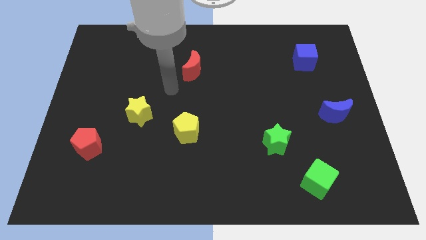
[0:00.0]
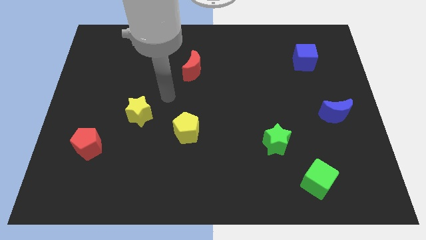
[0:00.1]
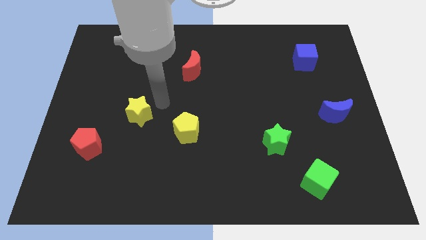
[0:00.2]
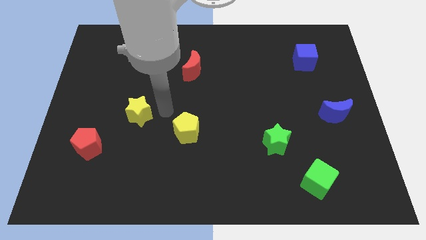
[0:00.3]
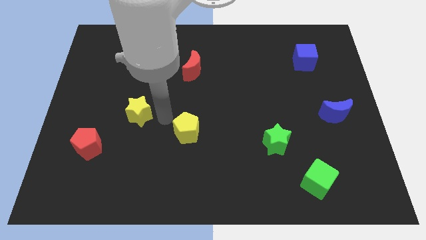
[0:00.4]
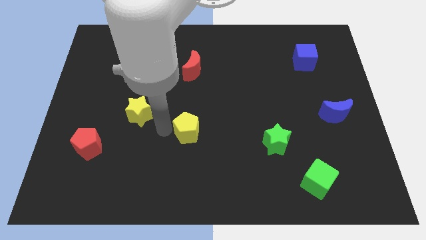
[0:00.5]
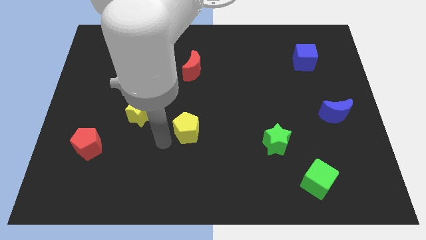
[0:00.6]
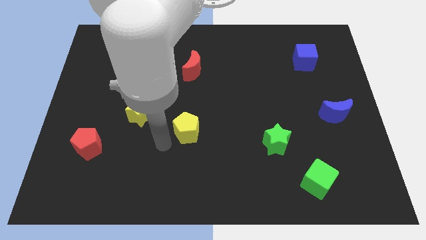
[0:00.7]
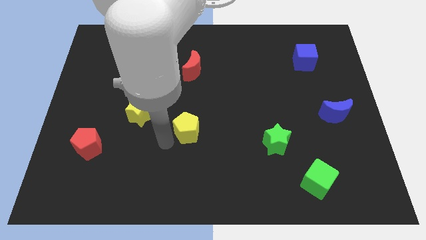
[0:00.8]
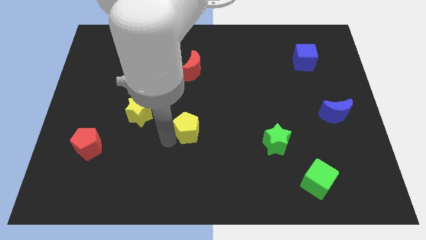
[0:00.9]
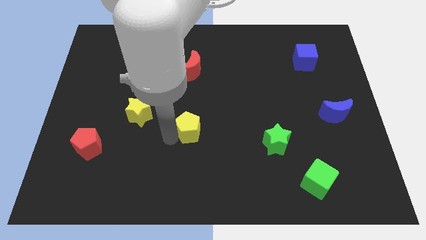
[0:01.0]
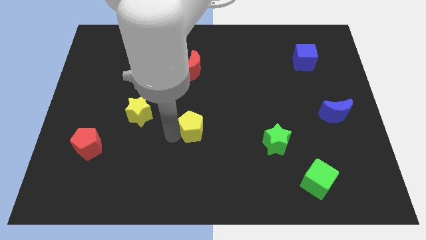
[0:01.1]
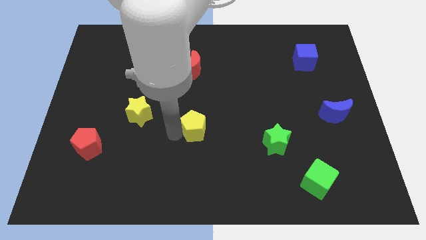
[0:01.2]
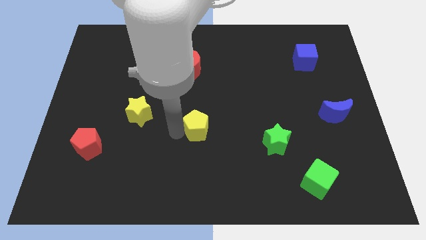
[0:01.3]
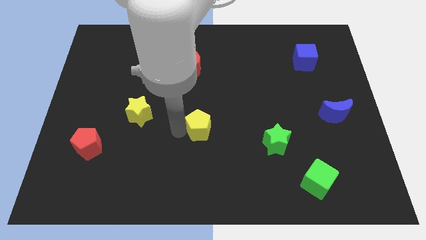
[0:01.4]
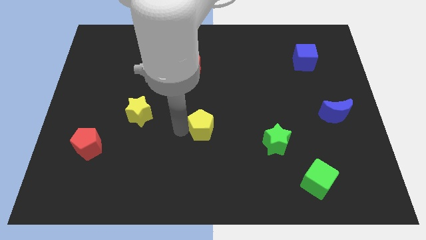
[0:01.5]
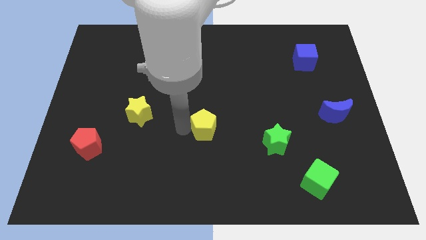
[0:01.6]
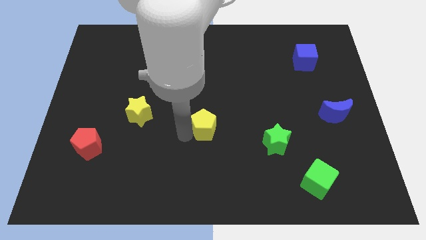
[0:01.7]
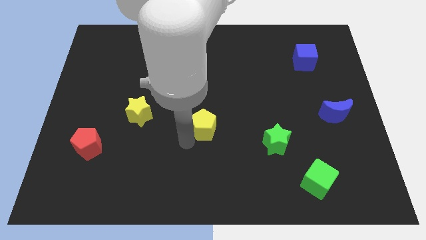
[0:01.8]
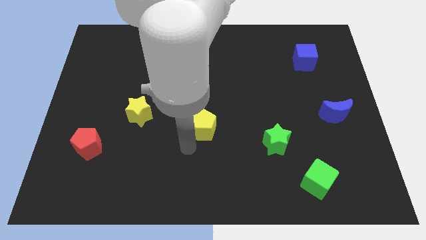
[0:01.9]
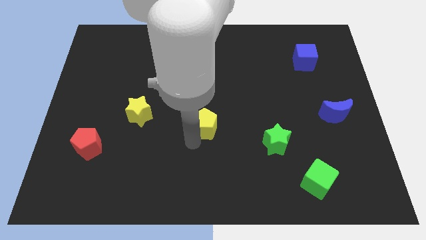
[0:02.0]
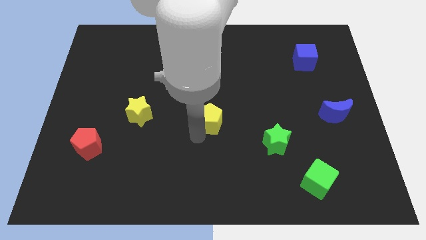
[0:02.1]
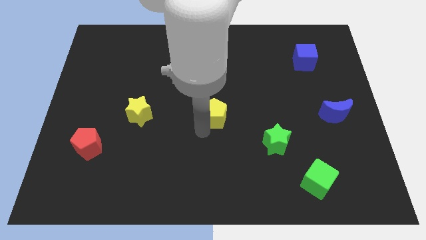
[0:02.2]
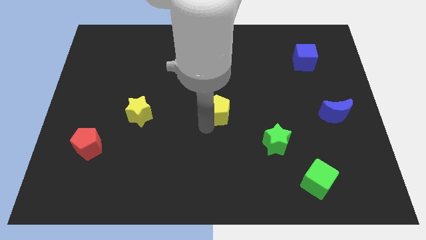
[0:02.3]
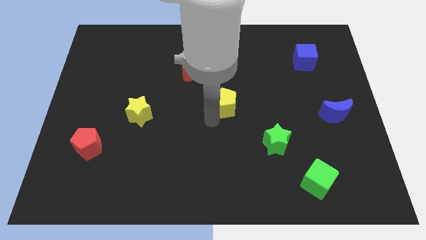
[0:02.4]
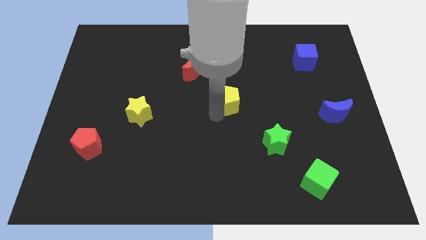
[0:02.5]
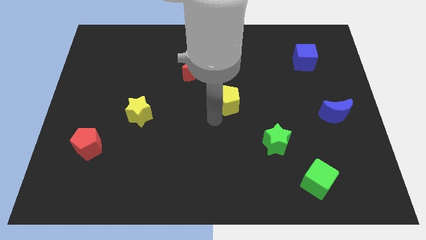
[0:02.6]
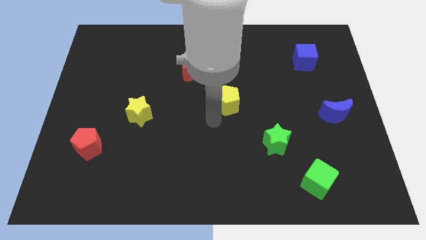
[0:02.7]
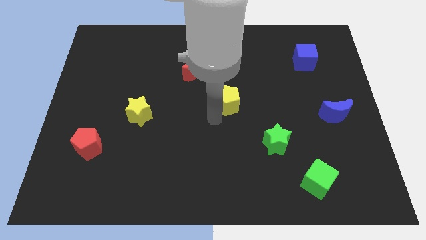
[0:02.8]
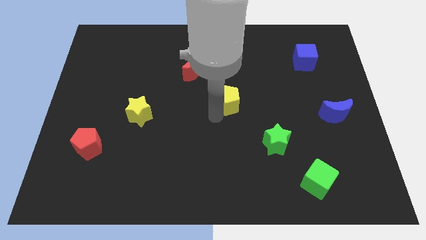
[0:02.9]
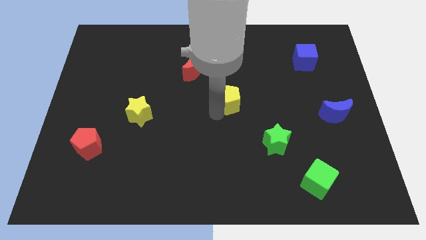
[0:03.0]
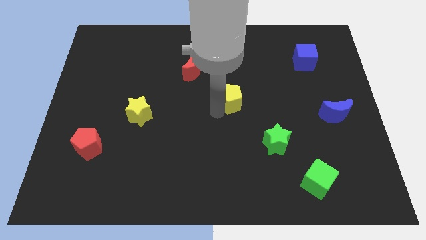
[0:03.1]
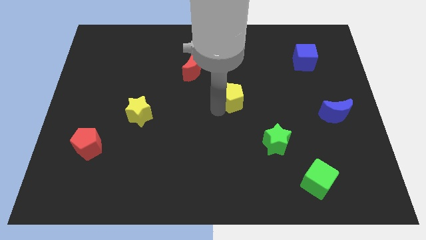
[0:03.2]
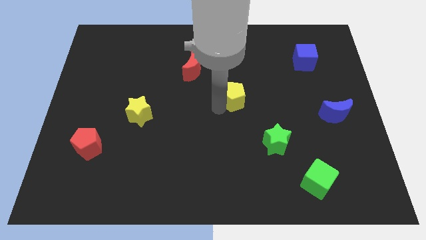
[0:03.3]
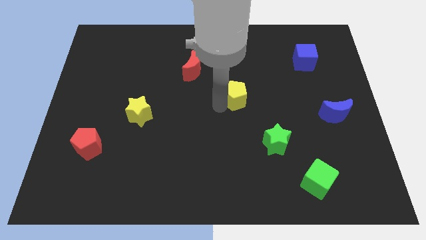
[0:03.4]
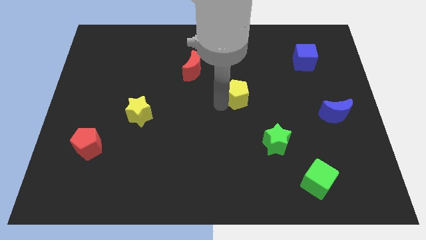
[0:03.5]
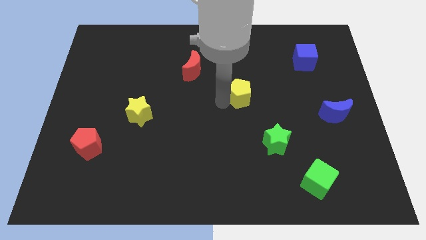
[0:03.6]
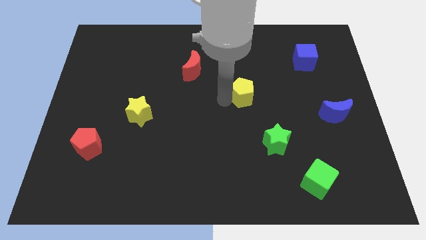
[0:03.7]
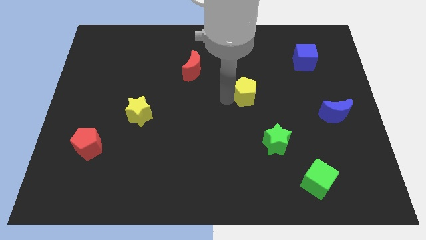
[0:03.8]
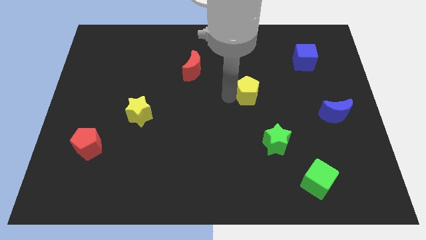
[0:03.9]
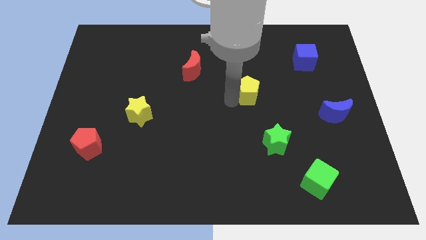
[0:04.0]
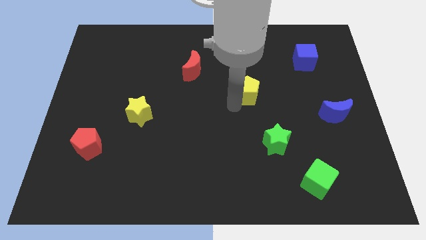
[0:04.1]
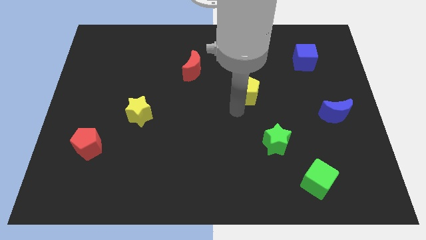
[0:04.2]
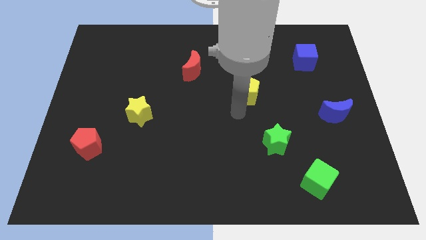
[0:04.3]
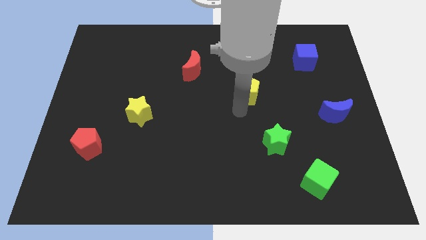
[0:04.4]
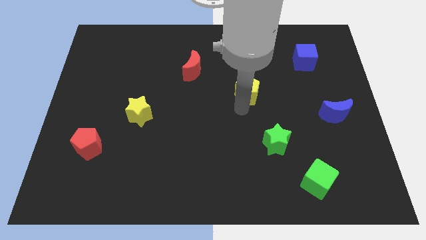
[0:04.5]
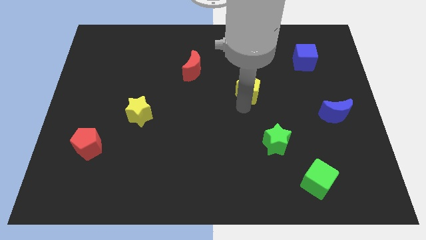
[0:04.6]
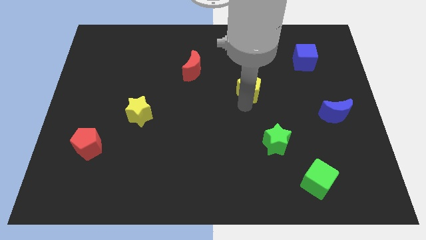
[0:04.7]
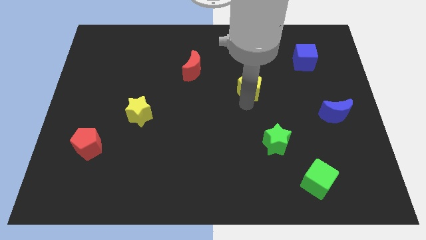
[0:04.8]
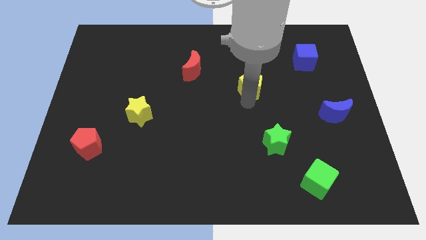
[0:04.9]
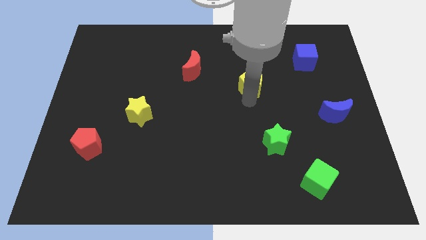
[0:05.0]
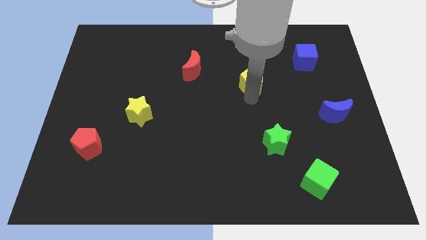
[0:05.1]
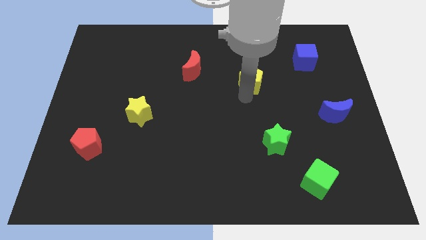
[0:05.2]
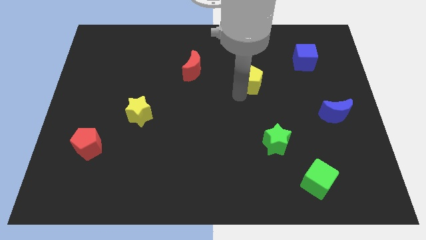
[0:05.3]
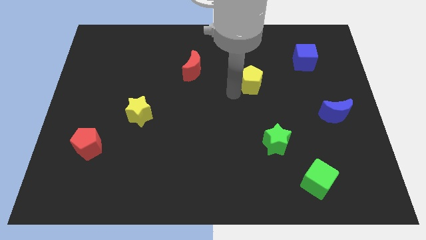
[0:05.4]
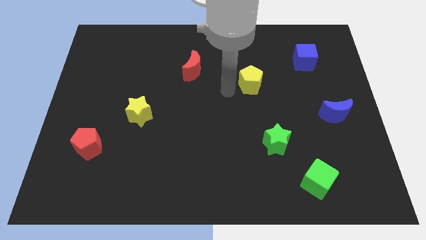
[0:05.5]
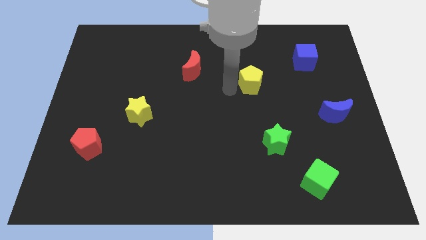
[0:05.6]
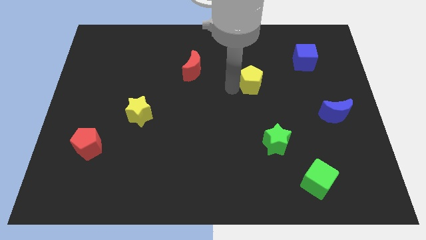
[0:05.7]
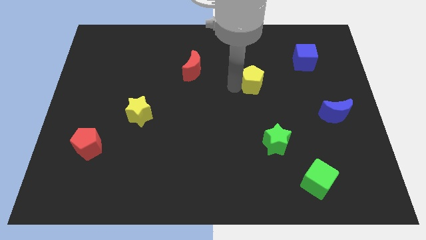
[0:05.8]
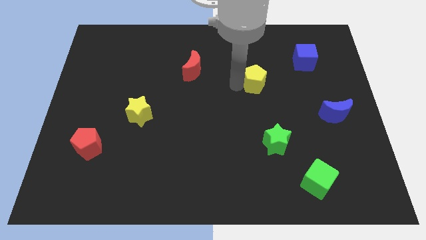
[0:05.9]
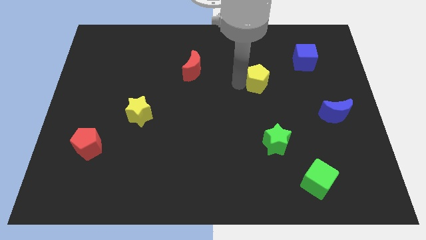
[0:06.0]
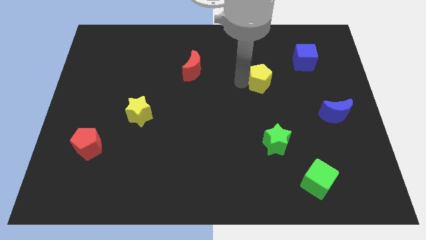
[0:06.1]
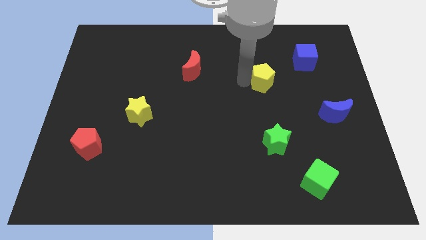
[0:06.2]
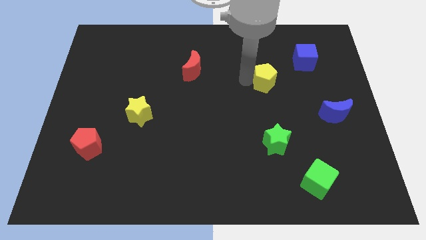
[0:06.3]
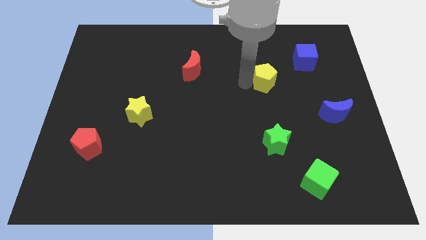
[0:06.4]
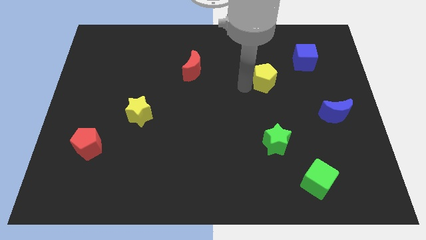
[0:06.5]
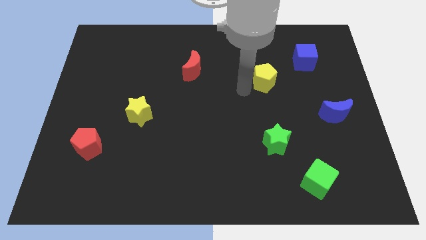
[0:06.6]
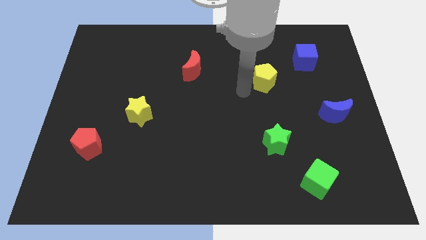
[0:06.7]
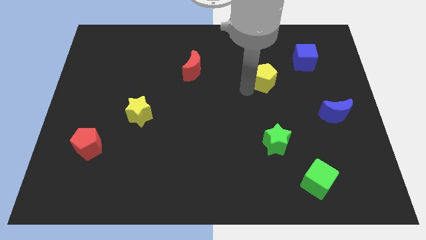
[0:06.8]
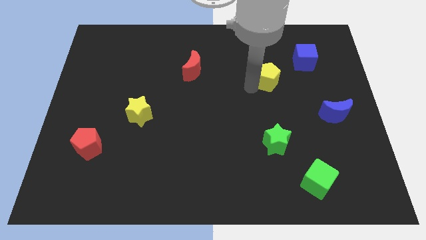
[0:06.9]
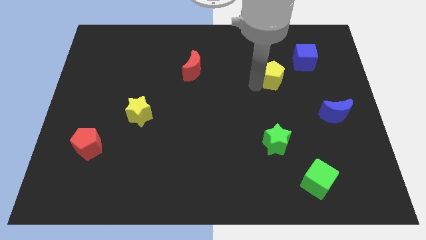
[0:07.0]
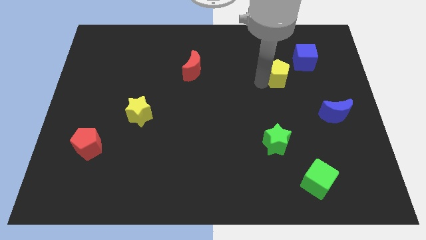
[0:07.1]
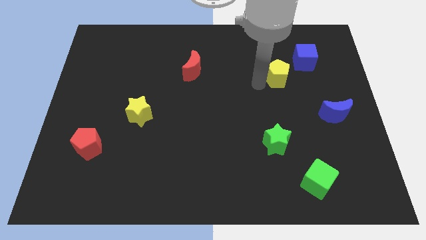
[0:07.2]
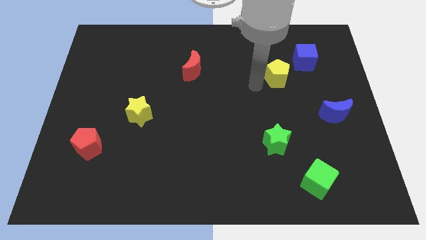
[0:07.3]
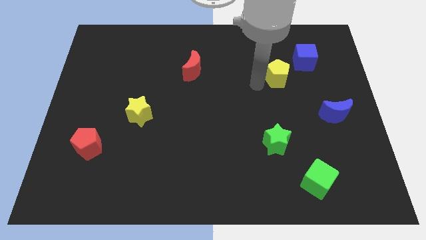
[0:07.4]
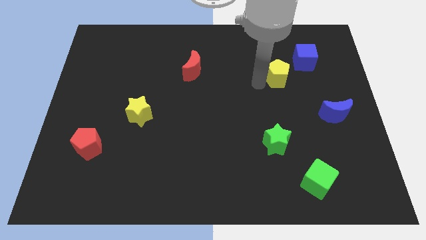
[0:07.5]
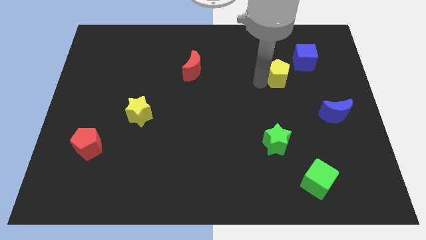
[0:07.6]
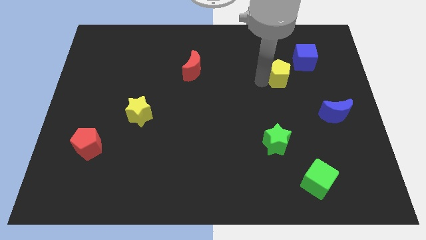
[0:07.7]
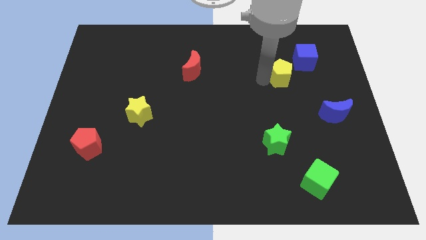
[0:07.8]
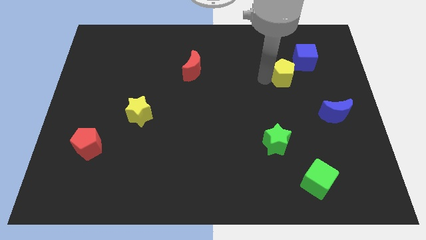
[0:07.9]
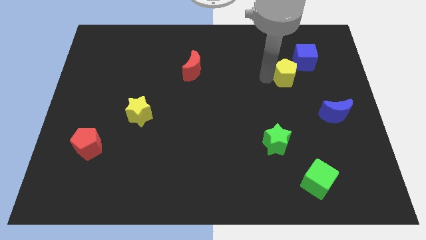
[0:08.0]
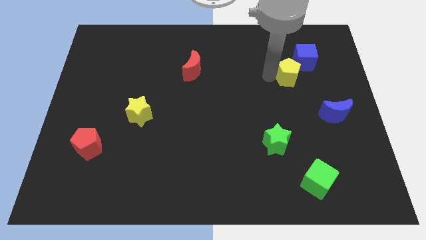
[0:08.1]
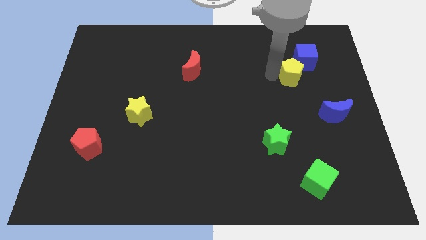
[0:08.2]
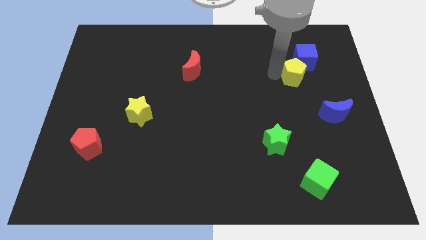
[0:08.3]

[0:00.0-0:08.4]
slide the yellow pentagon close to the blue cube
